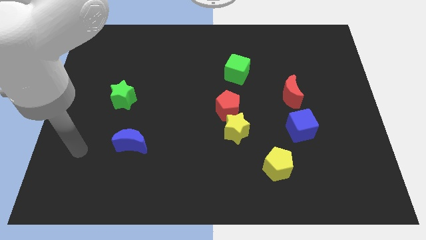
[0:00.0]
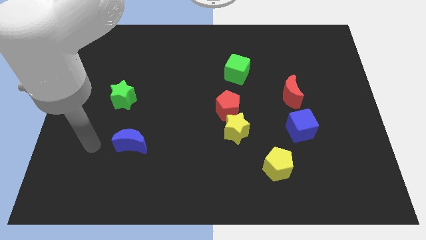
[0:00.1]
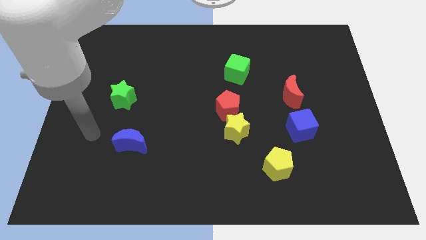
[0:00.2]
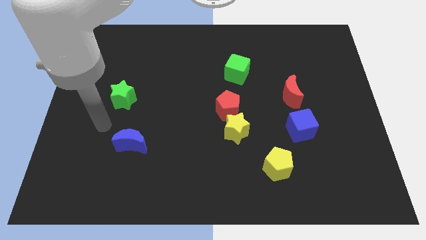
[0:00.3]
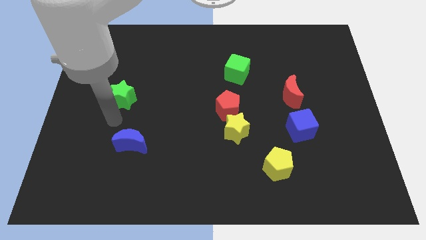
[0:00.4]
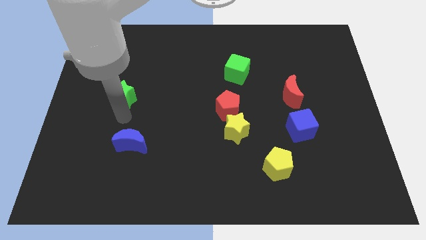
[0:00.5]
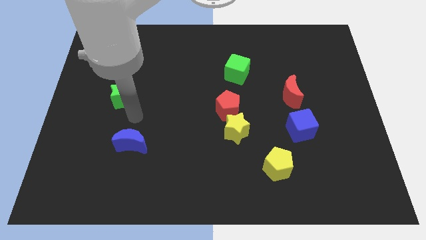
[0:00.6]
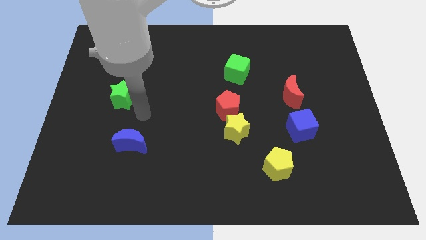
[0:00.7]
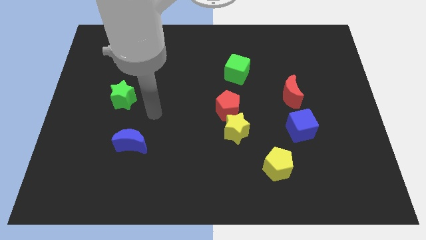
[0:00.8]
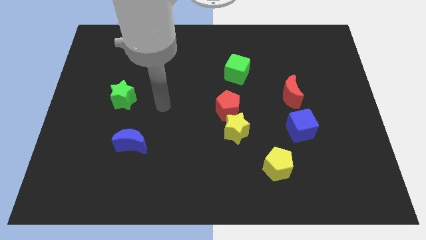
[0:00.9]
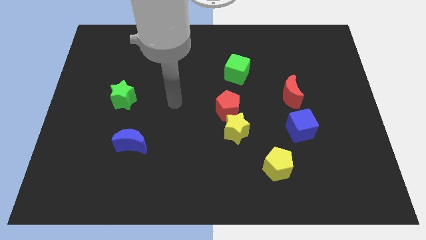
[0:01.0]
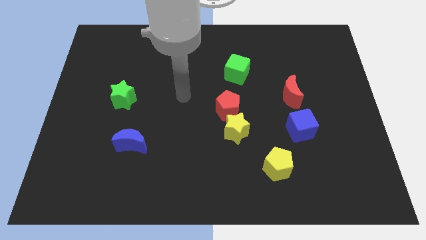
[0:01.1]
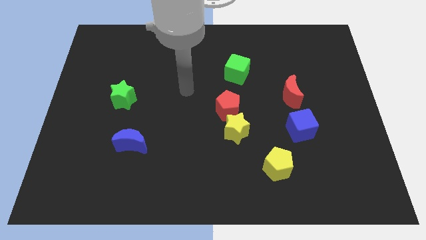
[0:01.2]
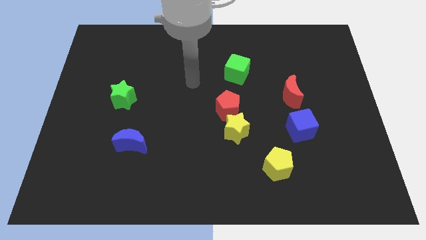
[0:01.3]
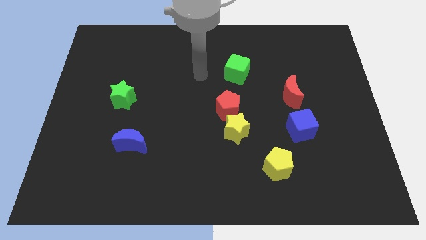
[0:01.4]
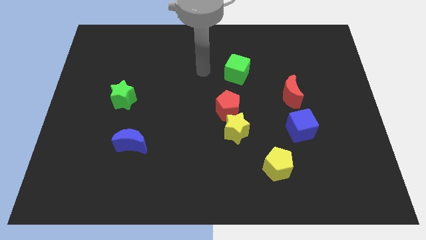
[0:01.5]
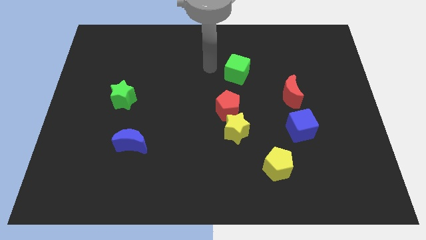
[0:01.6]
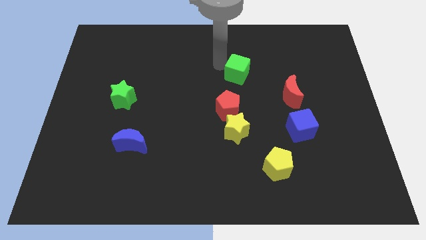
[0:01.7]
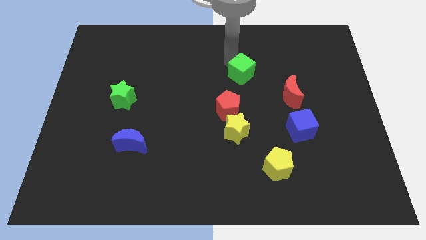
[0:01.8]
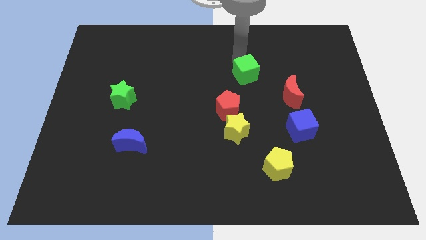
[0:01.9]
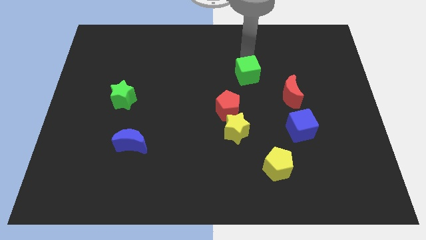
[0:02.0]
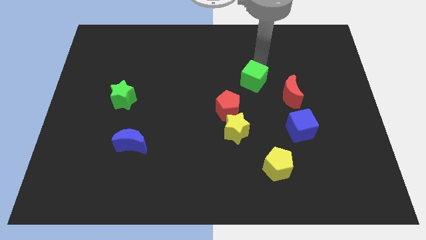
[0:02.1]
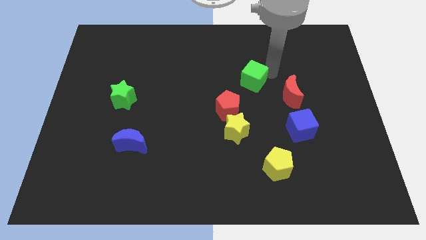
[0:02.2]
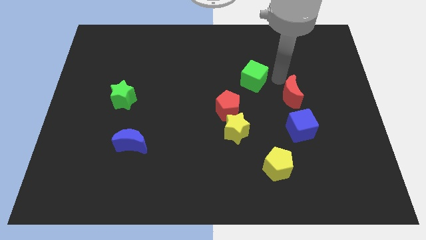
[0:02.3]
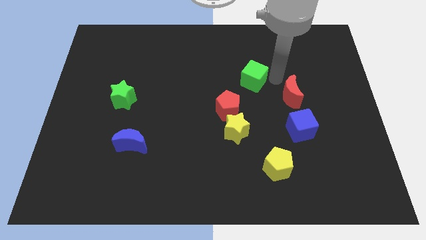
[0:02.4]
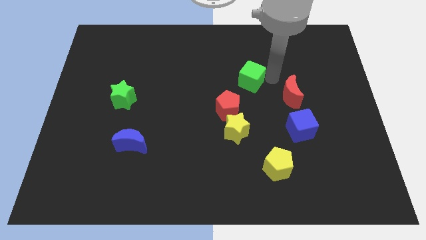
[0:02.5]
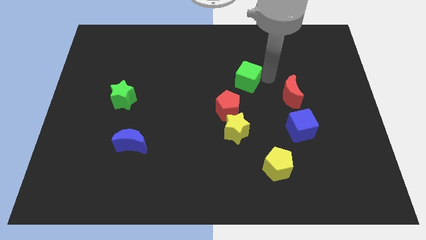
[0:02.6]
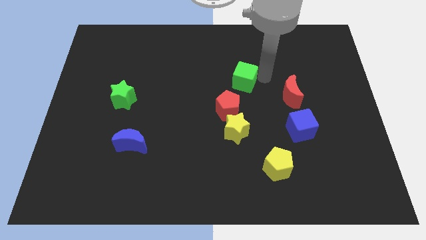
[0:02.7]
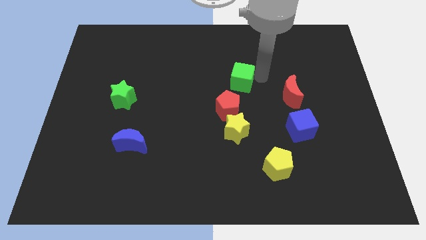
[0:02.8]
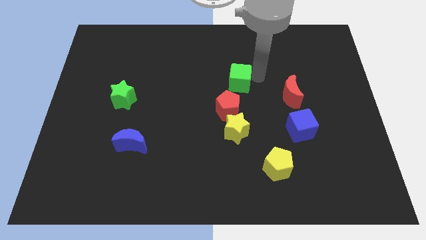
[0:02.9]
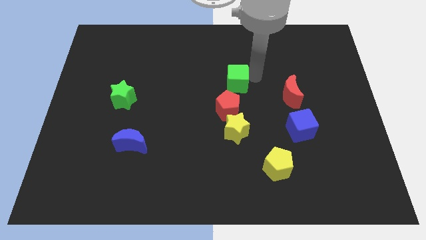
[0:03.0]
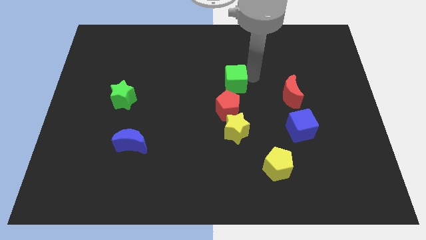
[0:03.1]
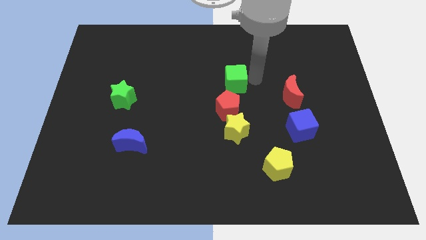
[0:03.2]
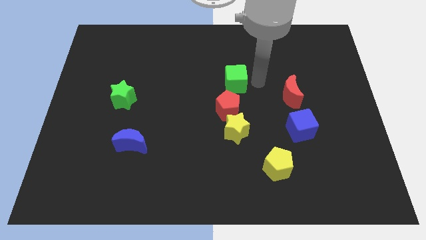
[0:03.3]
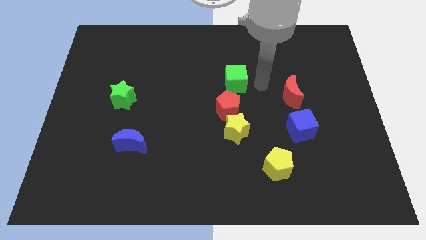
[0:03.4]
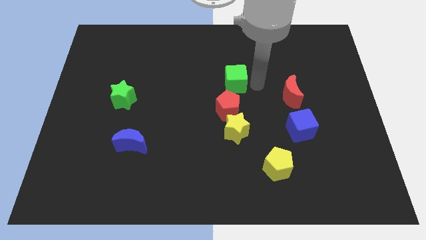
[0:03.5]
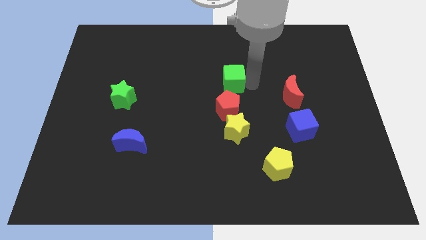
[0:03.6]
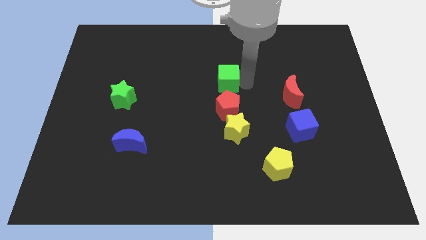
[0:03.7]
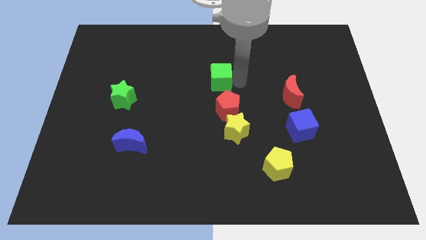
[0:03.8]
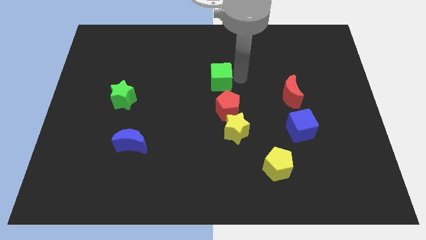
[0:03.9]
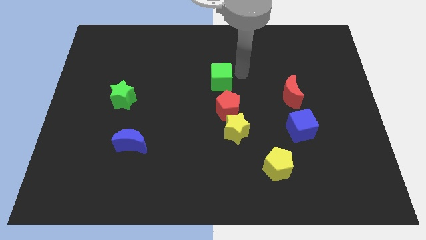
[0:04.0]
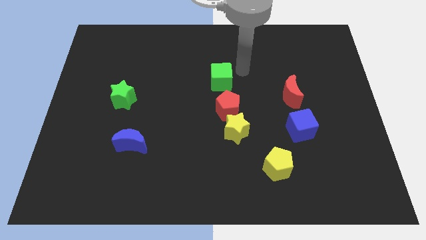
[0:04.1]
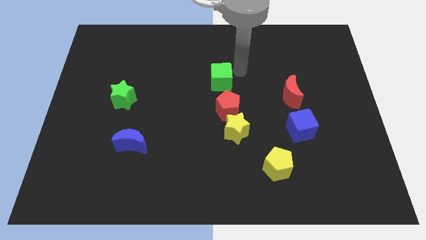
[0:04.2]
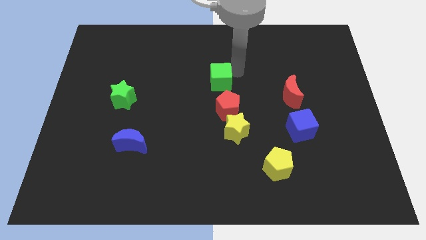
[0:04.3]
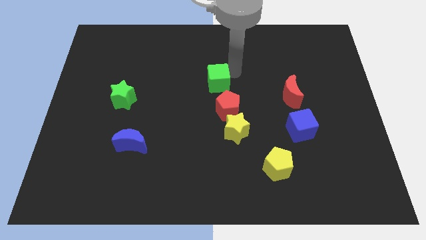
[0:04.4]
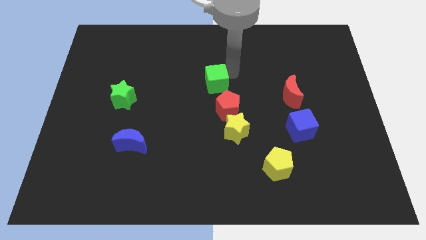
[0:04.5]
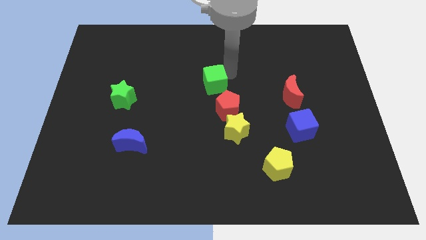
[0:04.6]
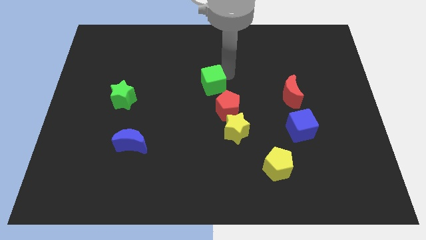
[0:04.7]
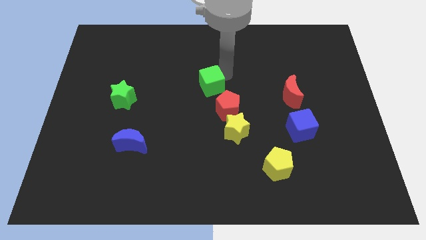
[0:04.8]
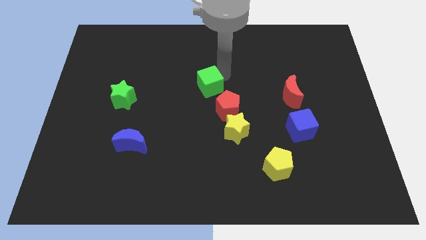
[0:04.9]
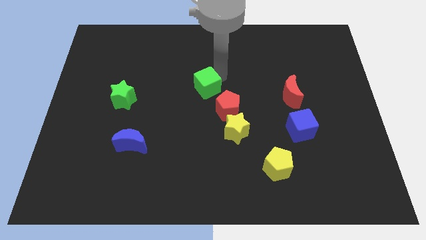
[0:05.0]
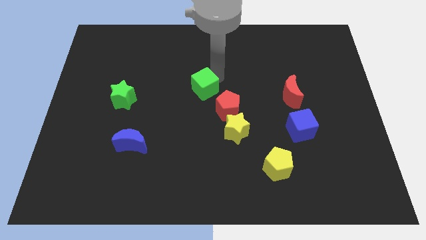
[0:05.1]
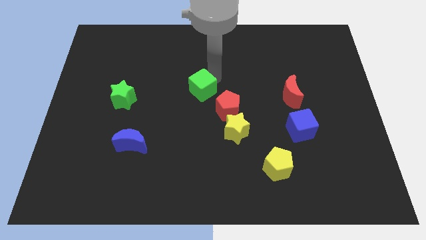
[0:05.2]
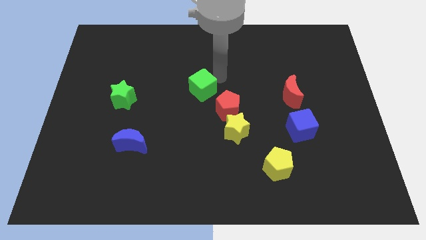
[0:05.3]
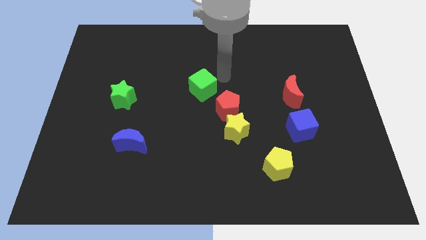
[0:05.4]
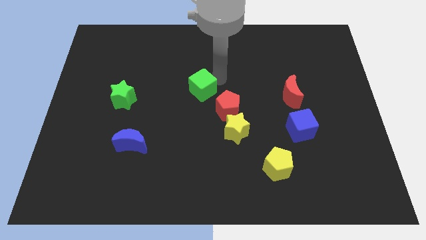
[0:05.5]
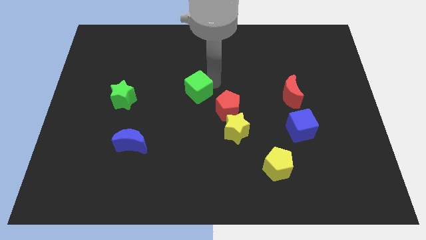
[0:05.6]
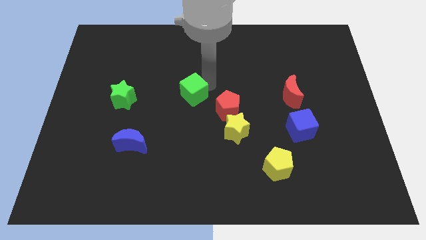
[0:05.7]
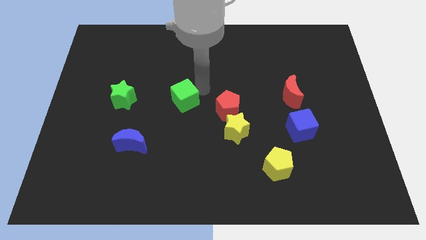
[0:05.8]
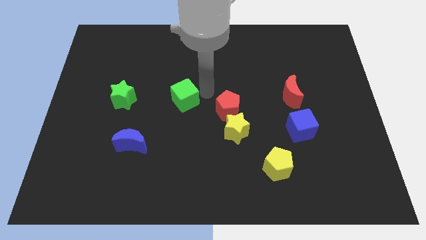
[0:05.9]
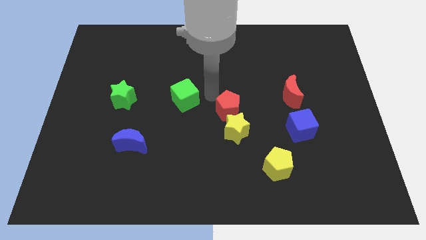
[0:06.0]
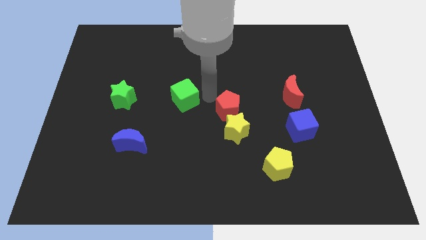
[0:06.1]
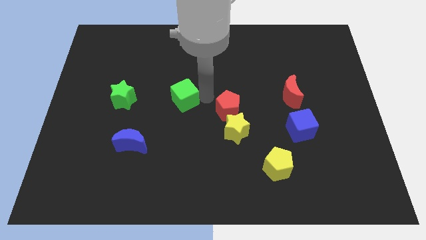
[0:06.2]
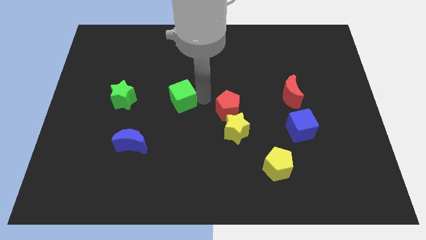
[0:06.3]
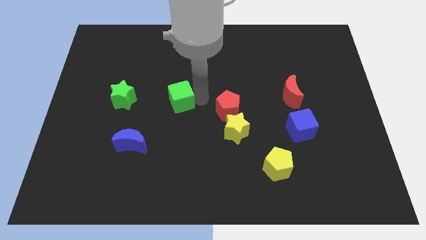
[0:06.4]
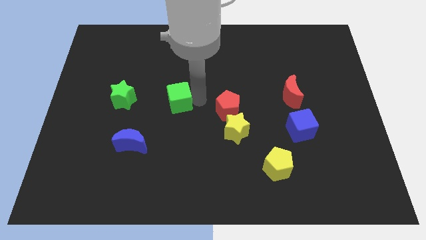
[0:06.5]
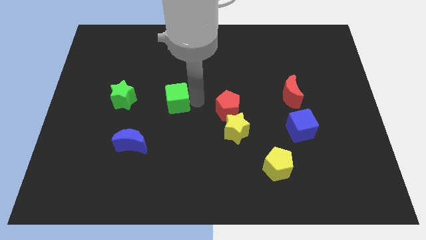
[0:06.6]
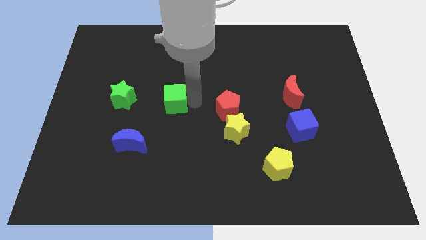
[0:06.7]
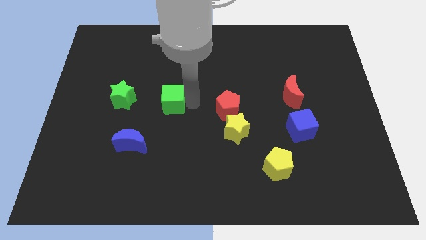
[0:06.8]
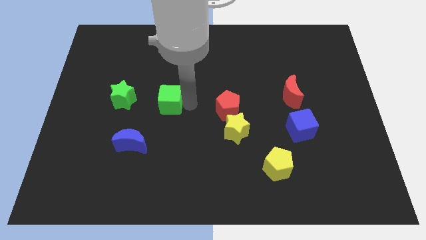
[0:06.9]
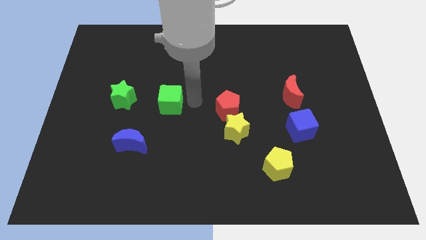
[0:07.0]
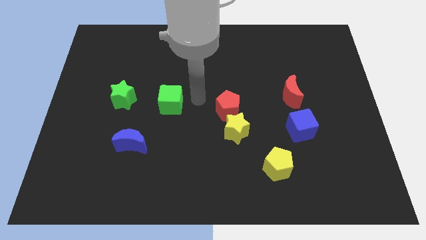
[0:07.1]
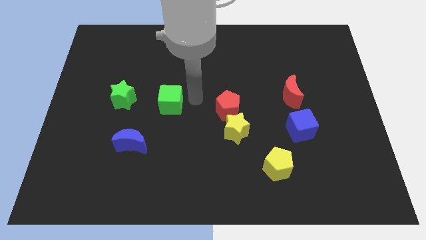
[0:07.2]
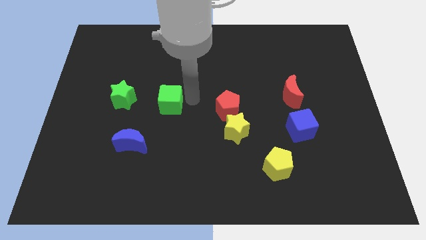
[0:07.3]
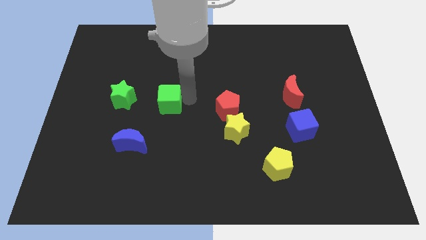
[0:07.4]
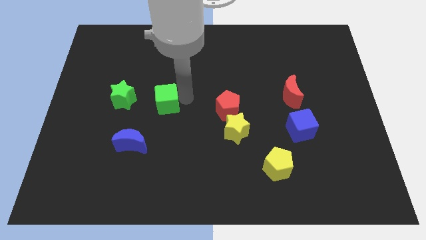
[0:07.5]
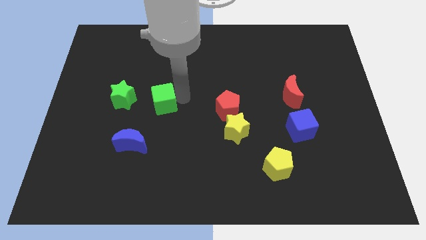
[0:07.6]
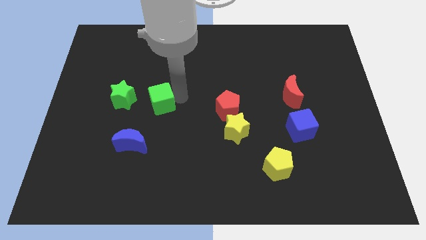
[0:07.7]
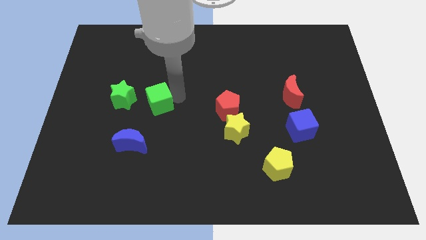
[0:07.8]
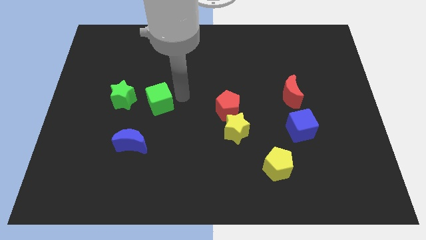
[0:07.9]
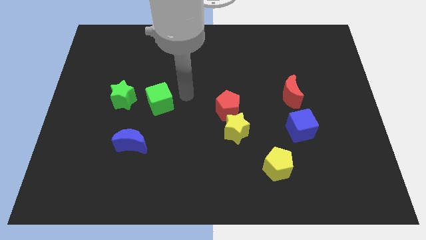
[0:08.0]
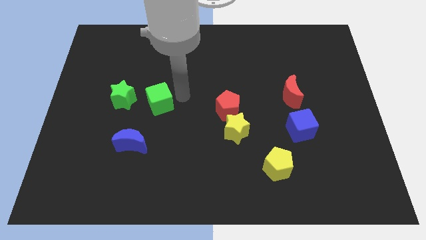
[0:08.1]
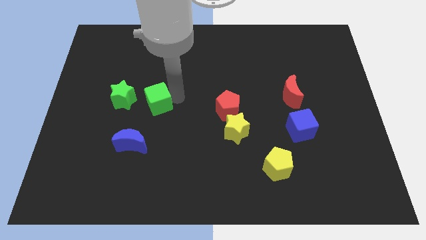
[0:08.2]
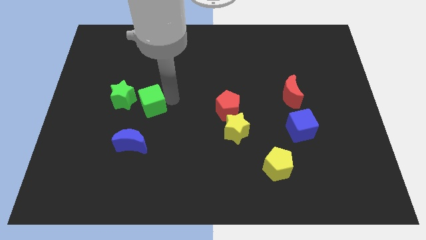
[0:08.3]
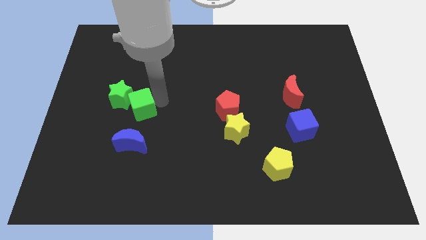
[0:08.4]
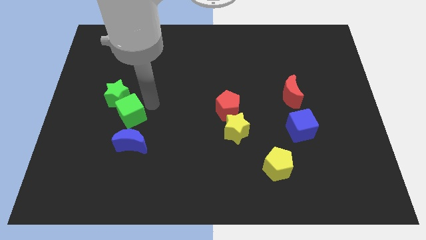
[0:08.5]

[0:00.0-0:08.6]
move the green cube to the top left of the blue moon
